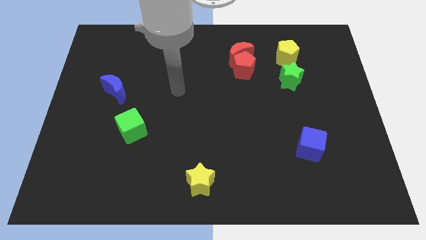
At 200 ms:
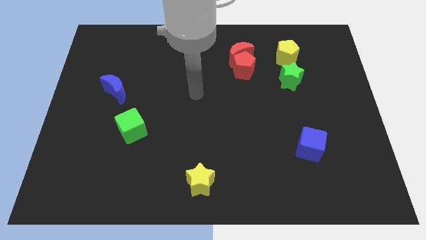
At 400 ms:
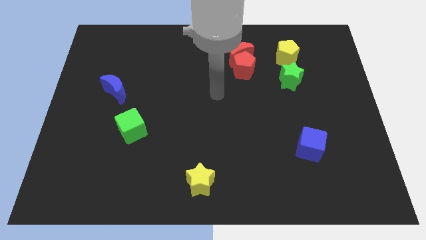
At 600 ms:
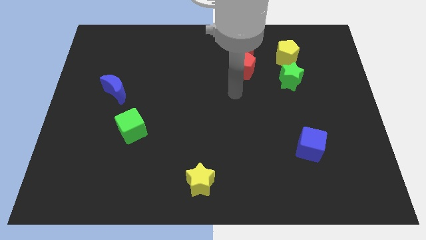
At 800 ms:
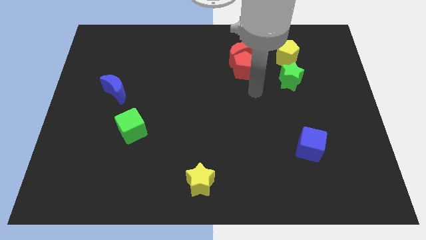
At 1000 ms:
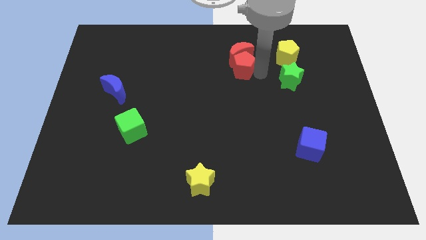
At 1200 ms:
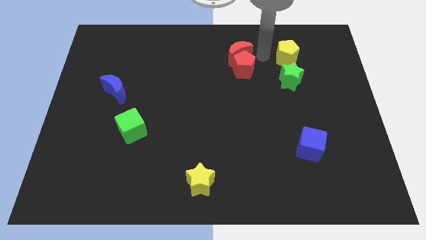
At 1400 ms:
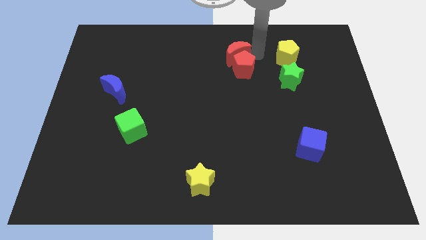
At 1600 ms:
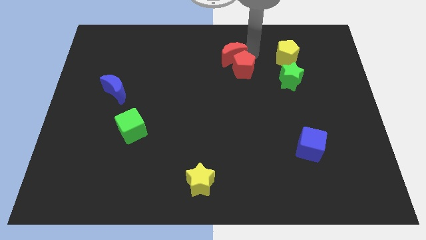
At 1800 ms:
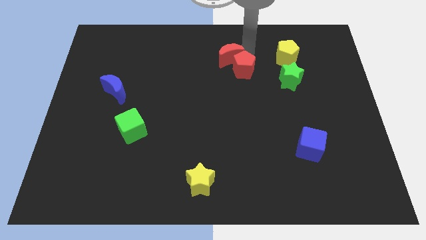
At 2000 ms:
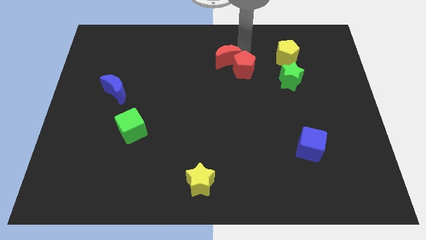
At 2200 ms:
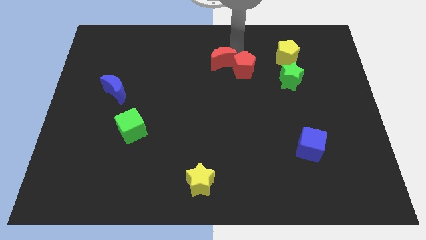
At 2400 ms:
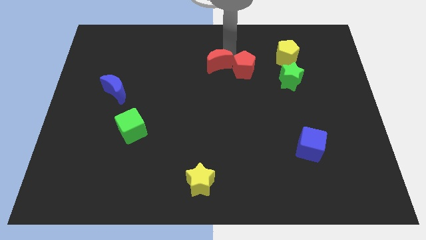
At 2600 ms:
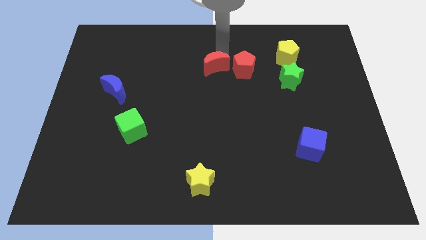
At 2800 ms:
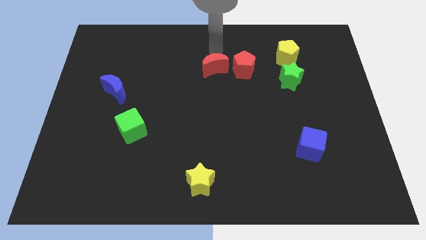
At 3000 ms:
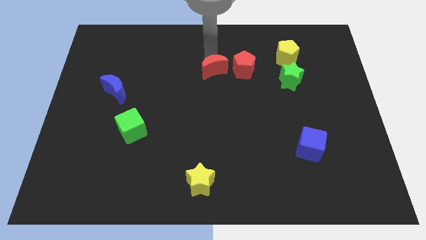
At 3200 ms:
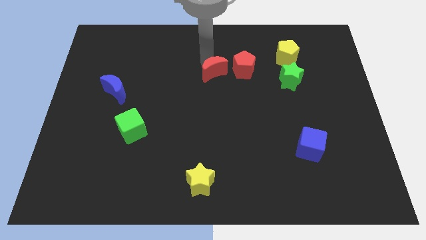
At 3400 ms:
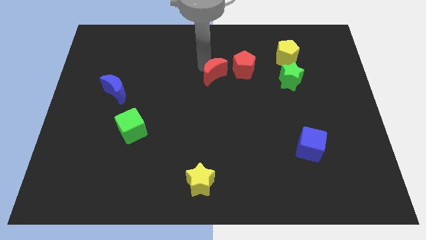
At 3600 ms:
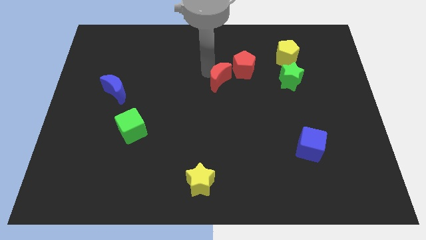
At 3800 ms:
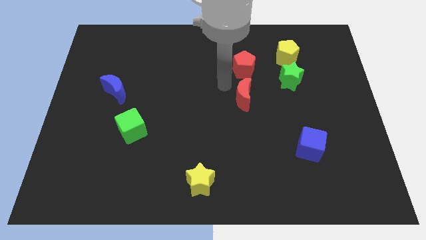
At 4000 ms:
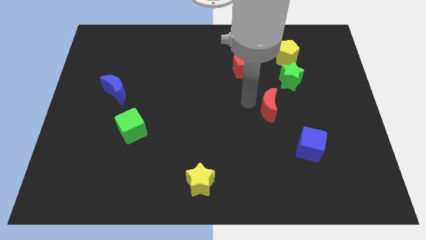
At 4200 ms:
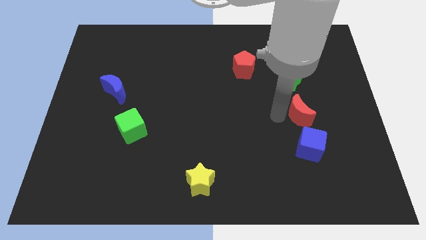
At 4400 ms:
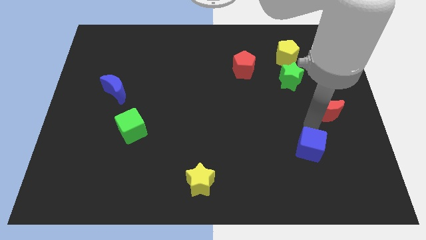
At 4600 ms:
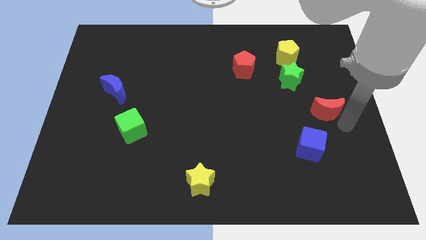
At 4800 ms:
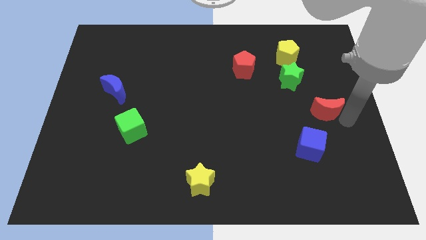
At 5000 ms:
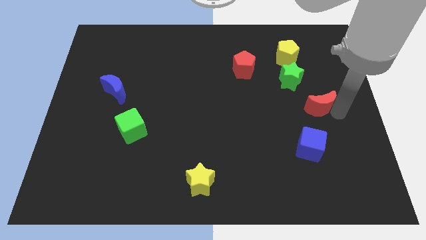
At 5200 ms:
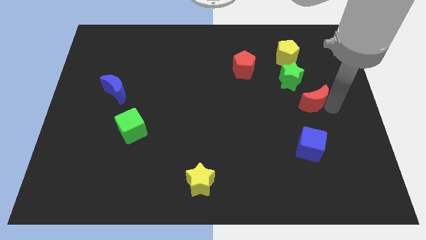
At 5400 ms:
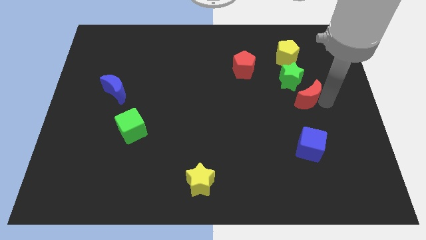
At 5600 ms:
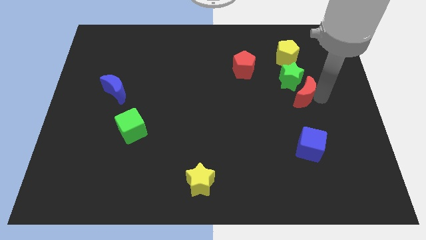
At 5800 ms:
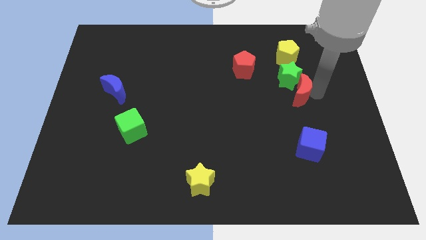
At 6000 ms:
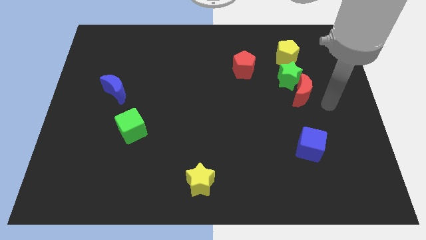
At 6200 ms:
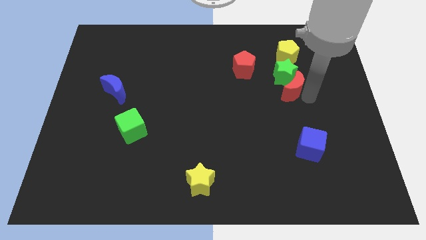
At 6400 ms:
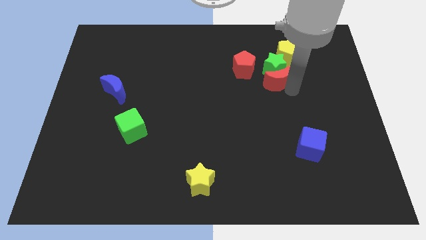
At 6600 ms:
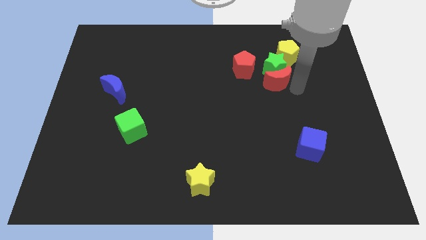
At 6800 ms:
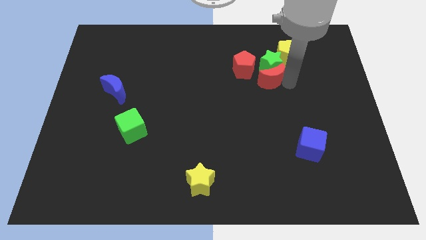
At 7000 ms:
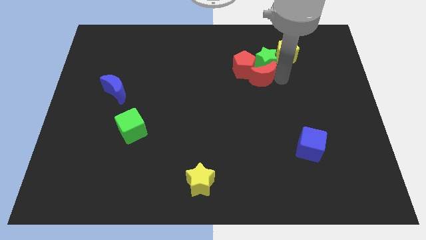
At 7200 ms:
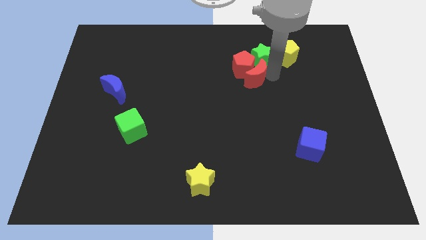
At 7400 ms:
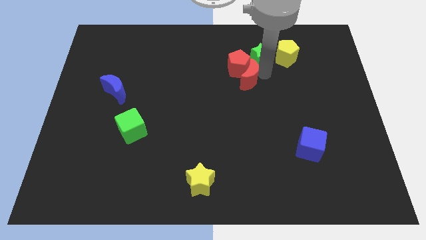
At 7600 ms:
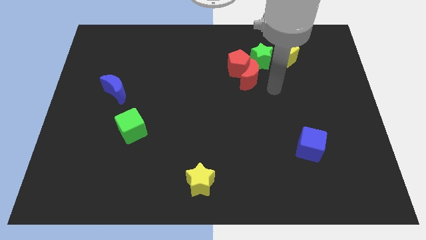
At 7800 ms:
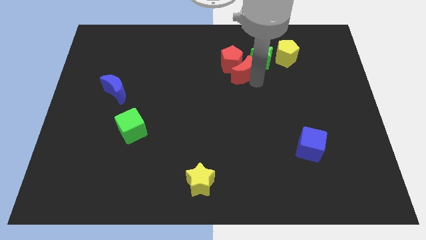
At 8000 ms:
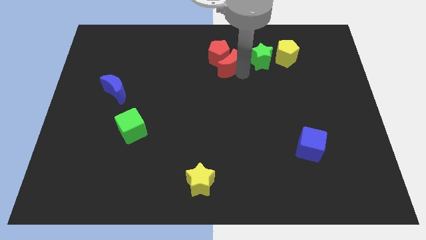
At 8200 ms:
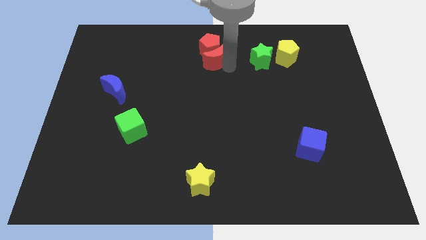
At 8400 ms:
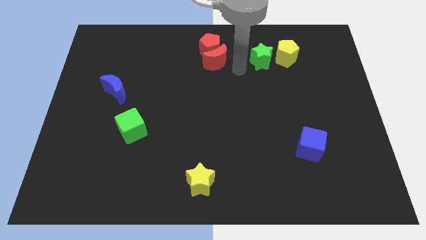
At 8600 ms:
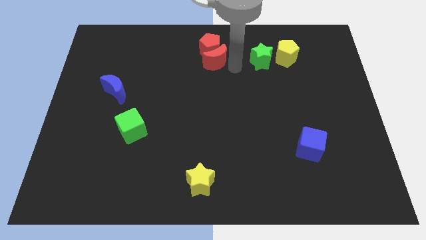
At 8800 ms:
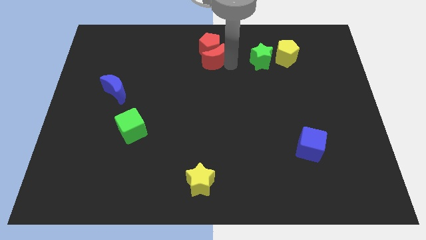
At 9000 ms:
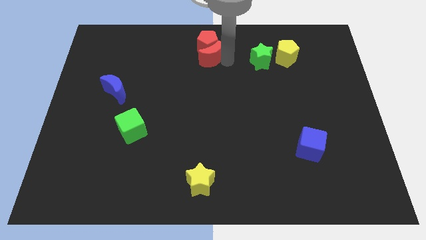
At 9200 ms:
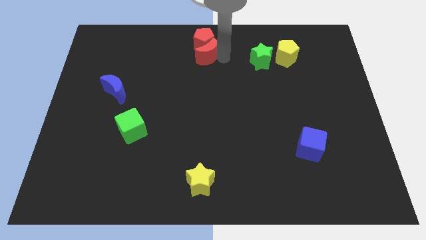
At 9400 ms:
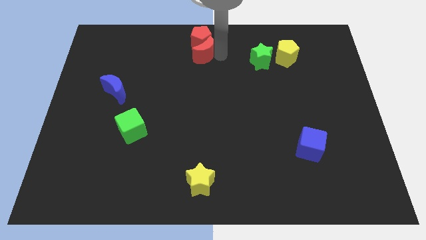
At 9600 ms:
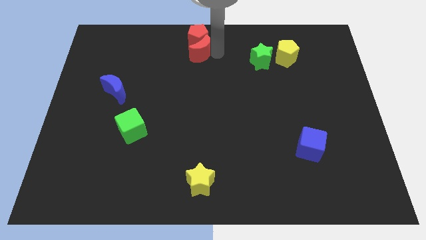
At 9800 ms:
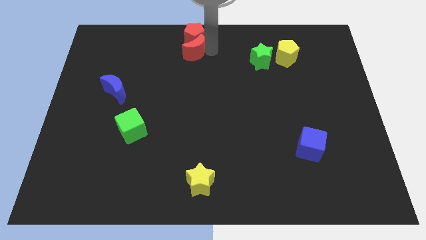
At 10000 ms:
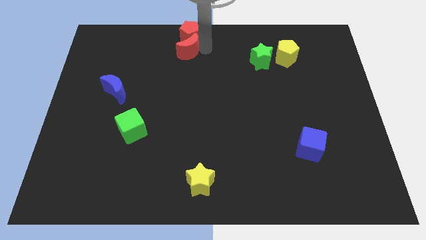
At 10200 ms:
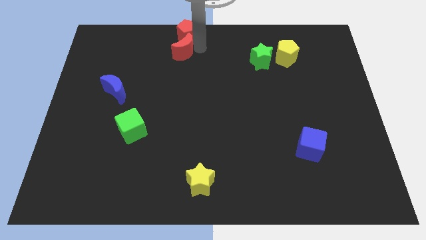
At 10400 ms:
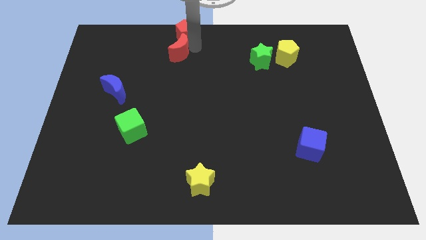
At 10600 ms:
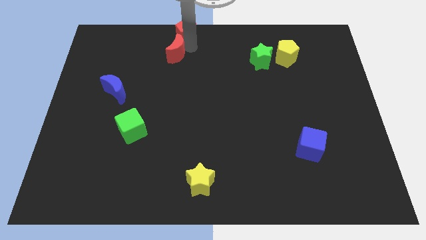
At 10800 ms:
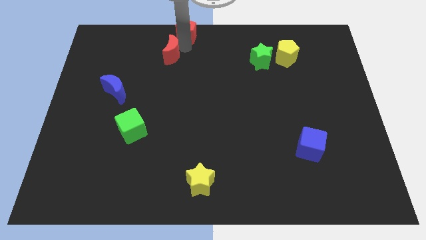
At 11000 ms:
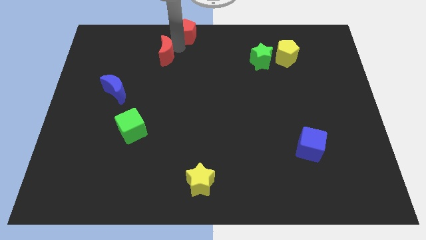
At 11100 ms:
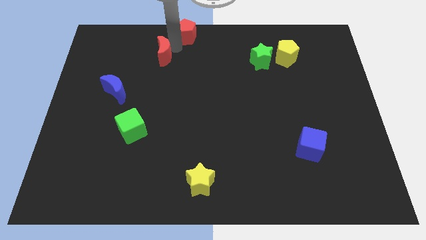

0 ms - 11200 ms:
slide the red moon left

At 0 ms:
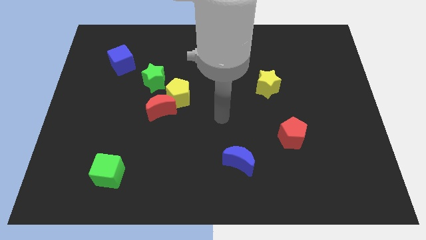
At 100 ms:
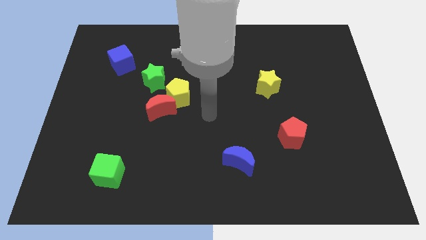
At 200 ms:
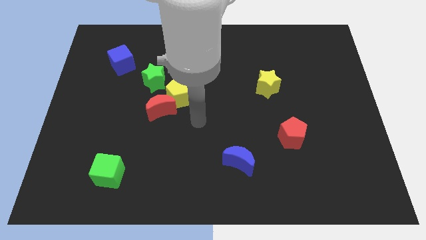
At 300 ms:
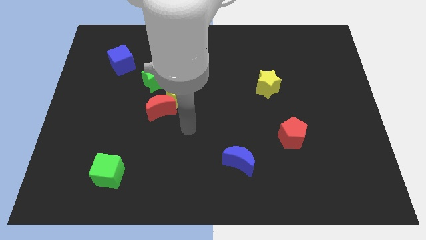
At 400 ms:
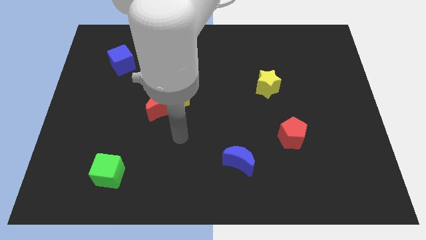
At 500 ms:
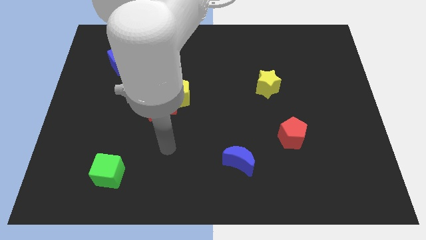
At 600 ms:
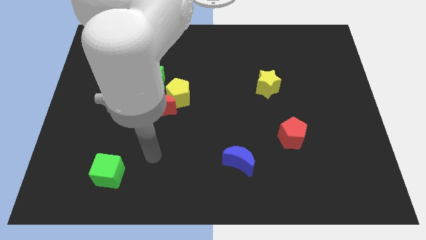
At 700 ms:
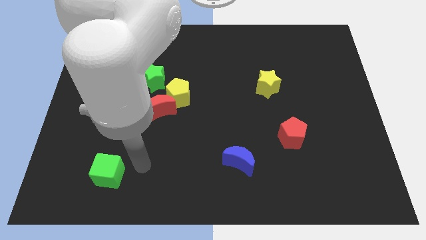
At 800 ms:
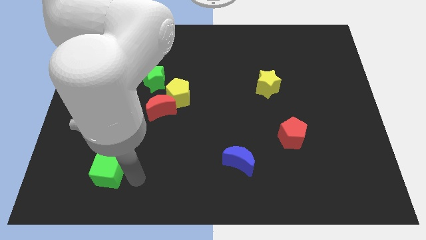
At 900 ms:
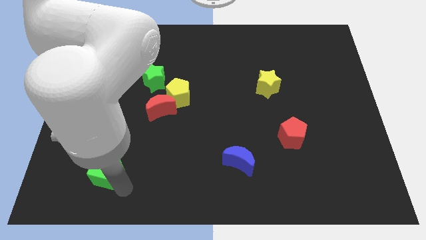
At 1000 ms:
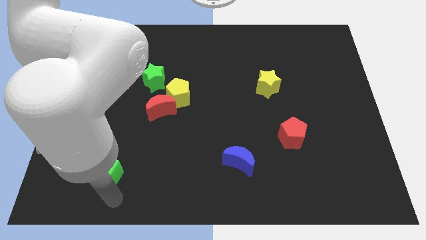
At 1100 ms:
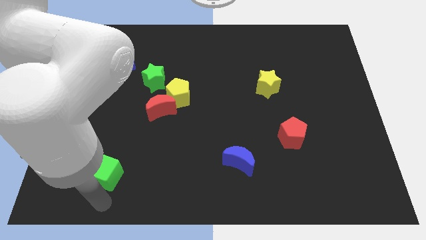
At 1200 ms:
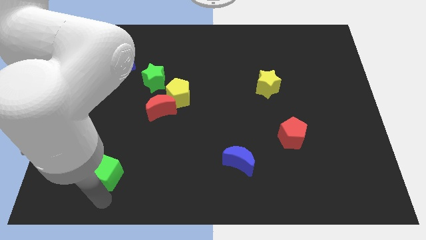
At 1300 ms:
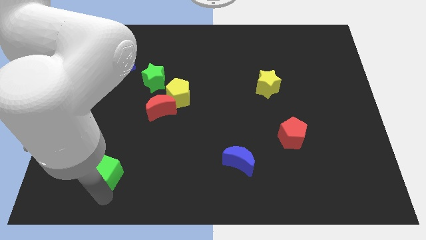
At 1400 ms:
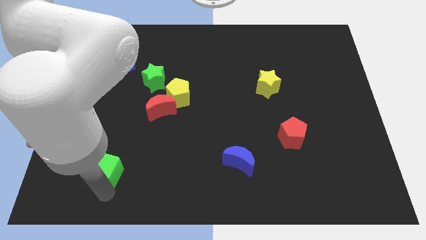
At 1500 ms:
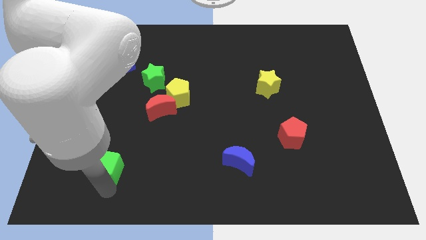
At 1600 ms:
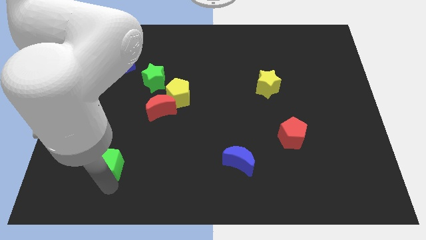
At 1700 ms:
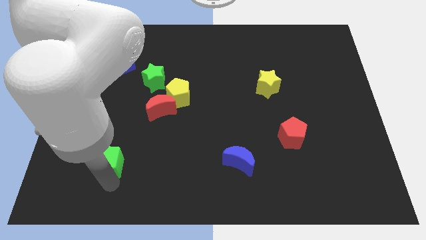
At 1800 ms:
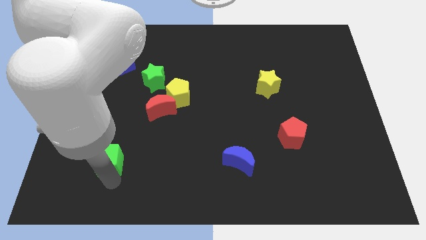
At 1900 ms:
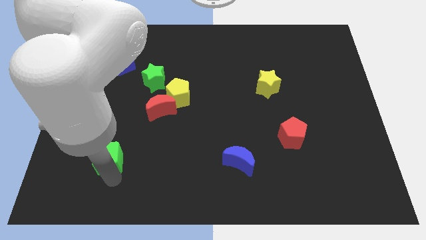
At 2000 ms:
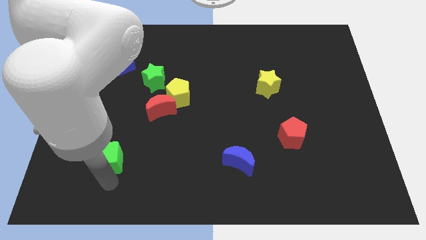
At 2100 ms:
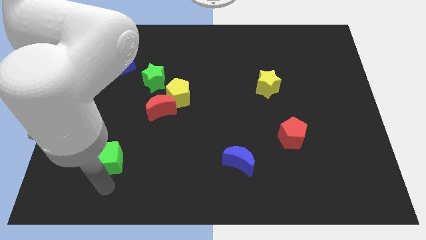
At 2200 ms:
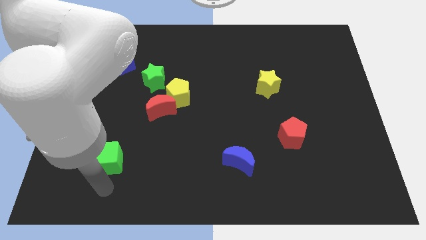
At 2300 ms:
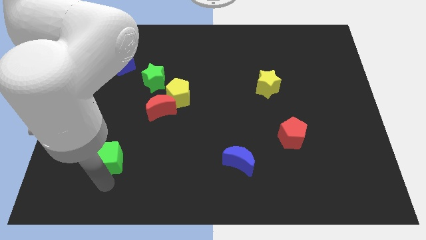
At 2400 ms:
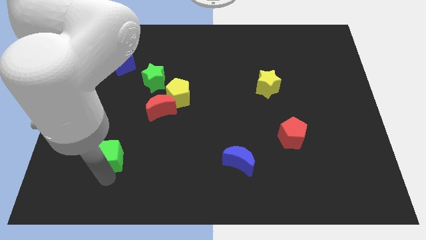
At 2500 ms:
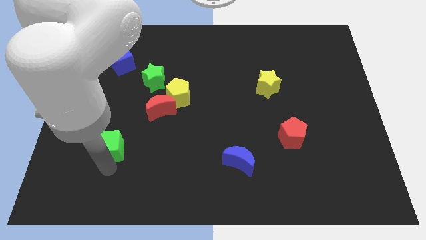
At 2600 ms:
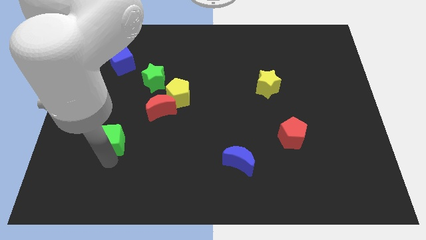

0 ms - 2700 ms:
slide the green cube somewhat upwards
